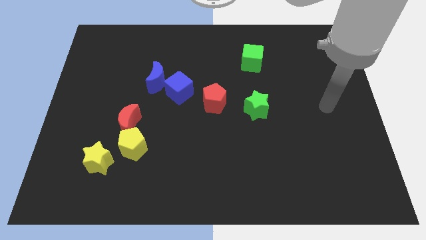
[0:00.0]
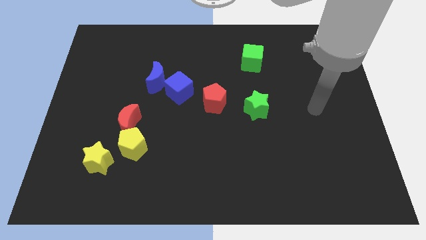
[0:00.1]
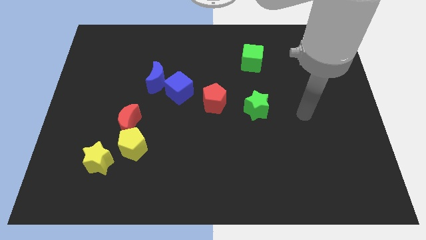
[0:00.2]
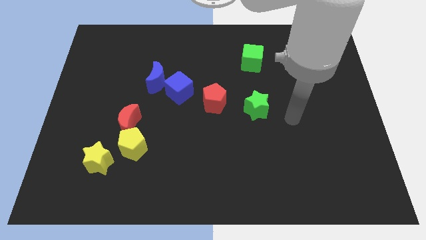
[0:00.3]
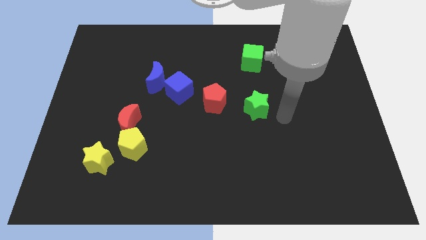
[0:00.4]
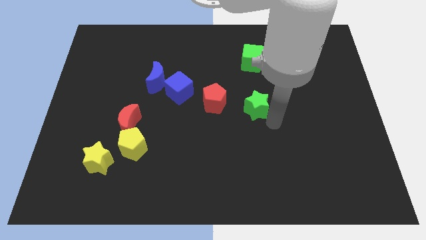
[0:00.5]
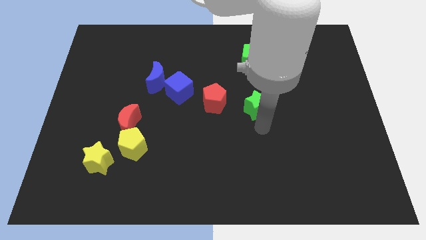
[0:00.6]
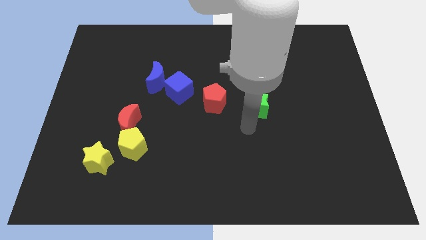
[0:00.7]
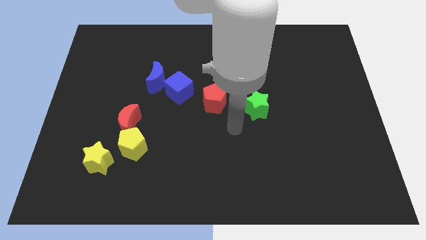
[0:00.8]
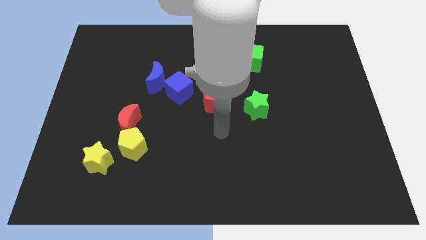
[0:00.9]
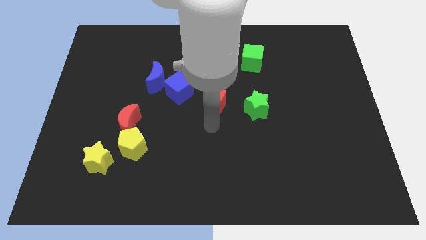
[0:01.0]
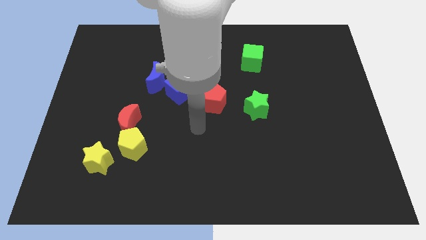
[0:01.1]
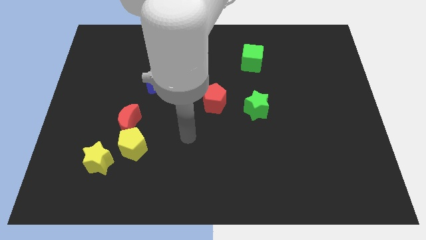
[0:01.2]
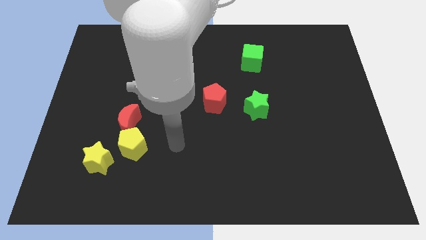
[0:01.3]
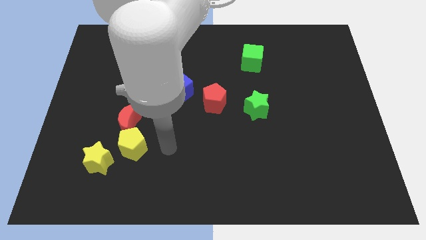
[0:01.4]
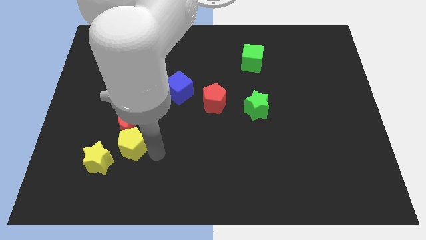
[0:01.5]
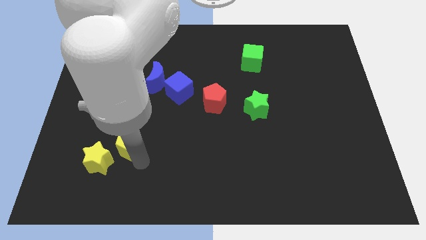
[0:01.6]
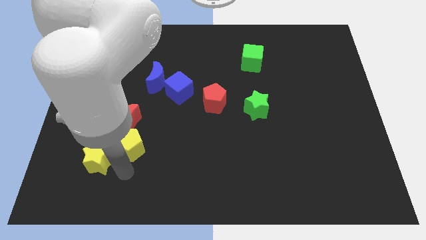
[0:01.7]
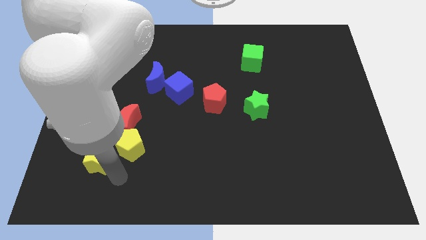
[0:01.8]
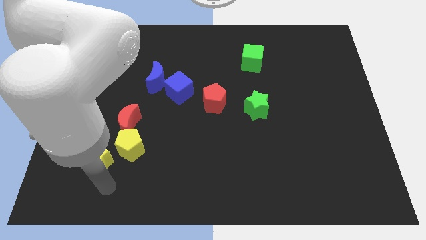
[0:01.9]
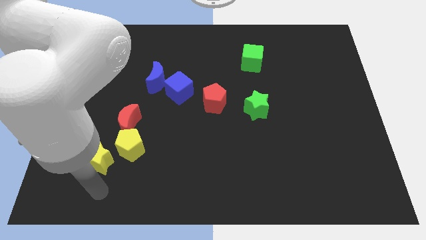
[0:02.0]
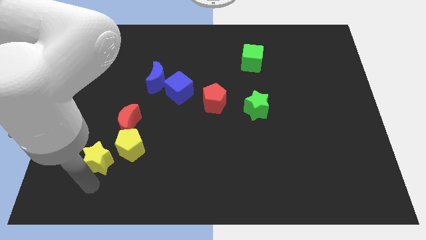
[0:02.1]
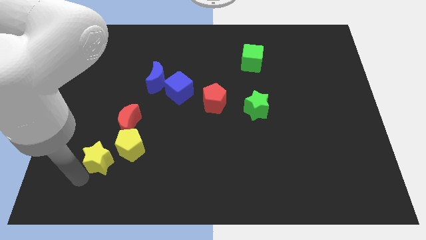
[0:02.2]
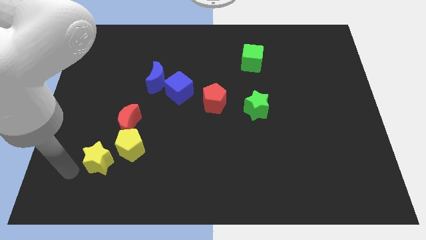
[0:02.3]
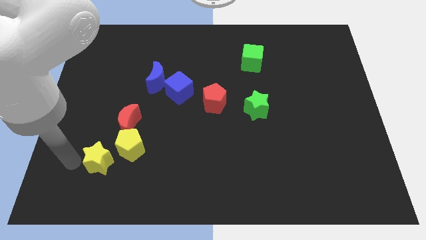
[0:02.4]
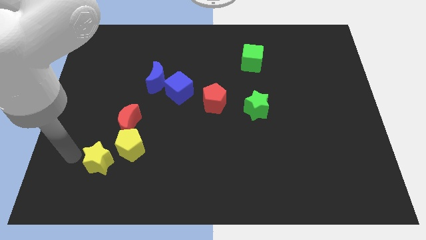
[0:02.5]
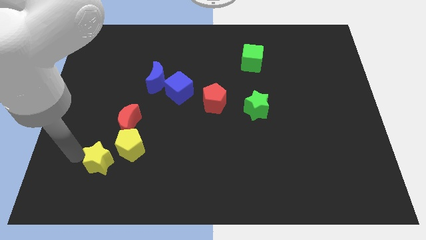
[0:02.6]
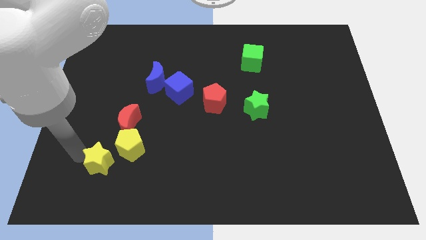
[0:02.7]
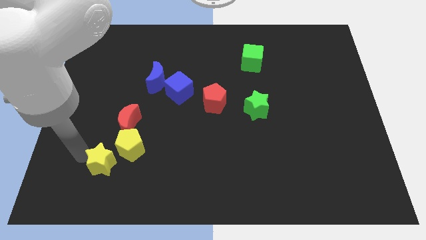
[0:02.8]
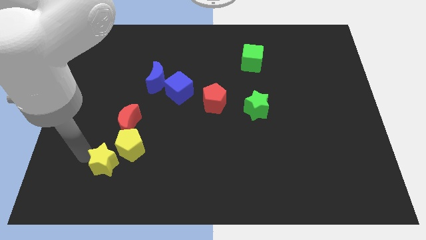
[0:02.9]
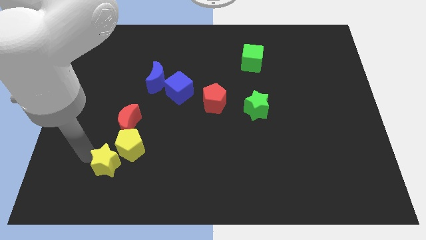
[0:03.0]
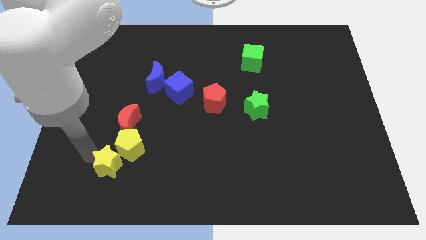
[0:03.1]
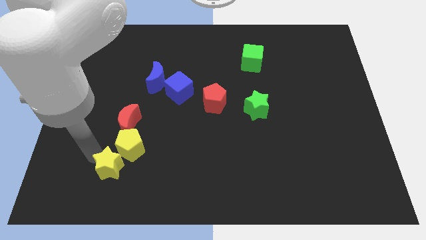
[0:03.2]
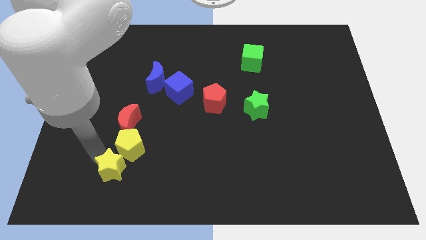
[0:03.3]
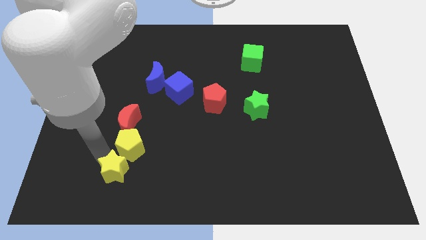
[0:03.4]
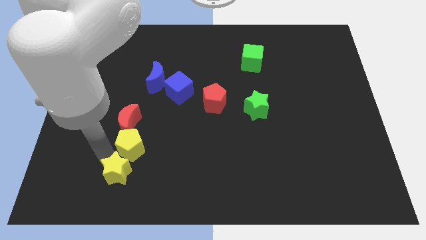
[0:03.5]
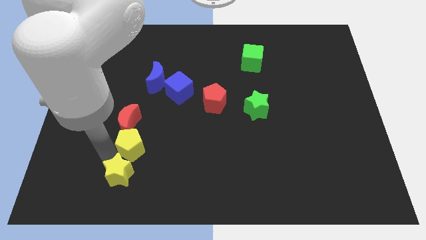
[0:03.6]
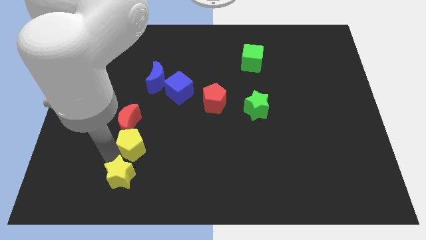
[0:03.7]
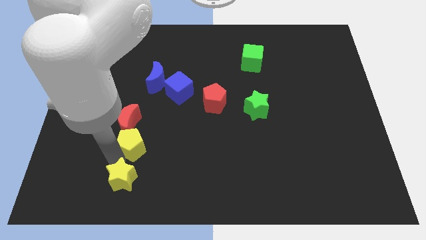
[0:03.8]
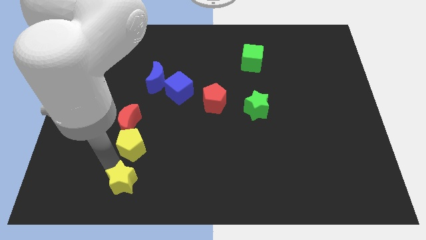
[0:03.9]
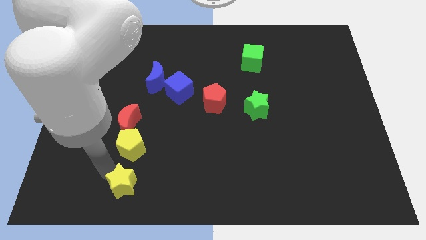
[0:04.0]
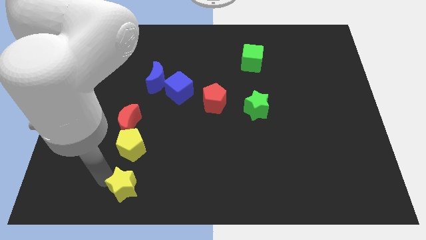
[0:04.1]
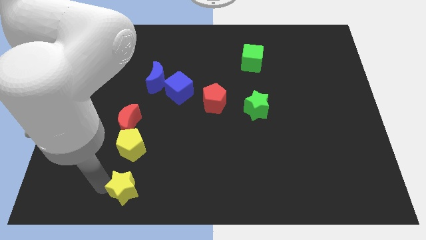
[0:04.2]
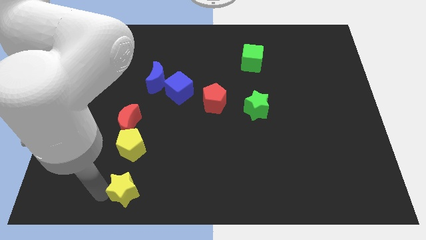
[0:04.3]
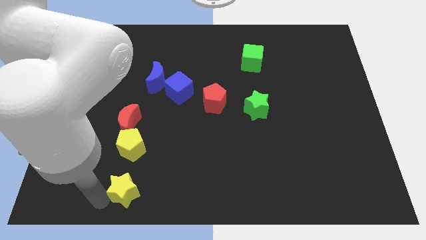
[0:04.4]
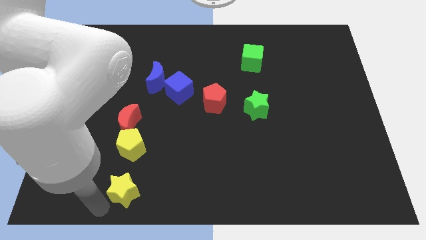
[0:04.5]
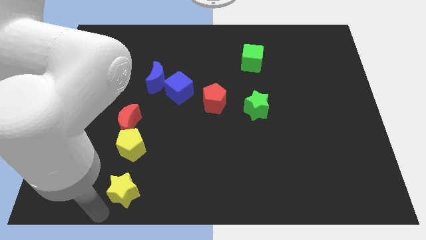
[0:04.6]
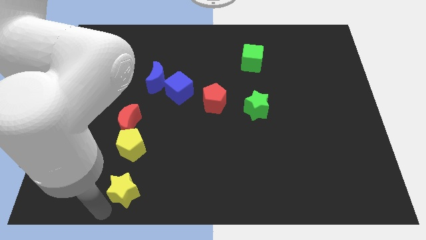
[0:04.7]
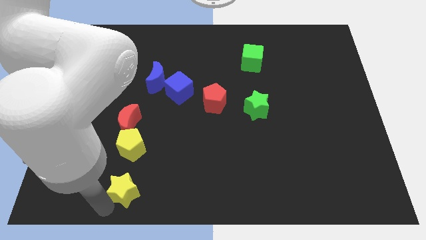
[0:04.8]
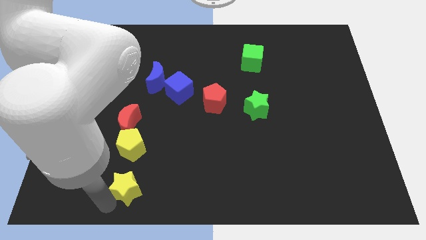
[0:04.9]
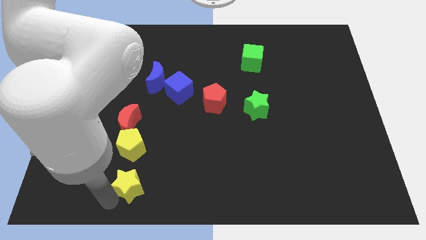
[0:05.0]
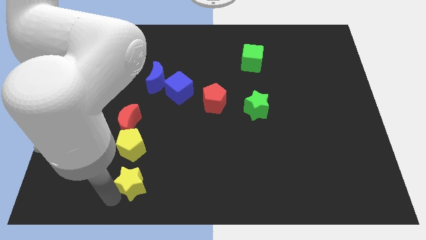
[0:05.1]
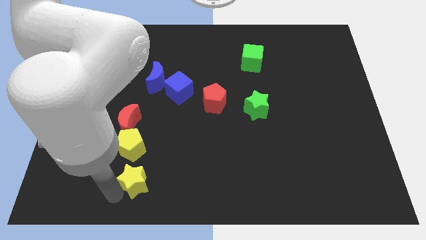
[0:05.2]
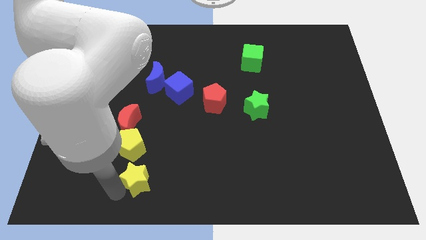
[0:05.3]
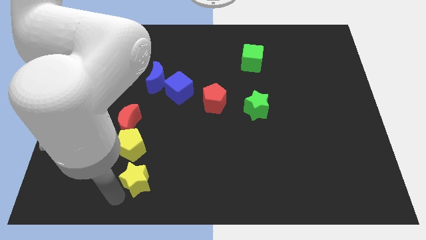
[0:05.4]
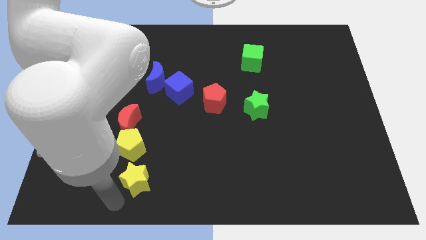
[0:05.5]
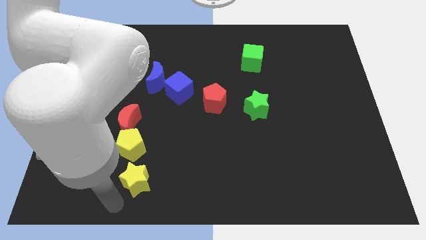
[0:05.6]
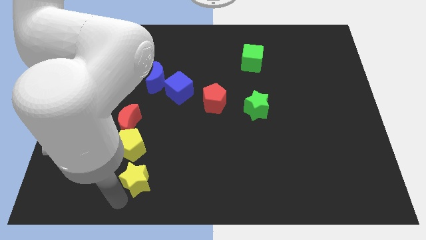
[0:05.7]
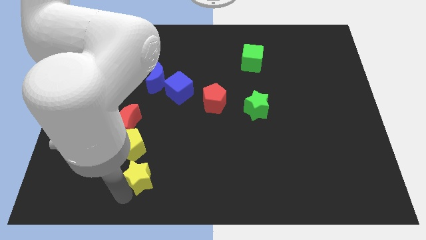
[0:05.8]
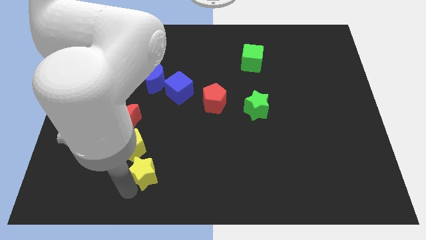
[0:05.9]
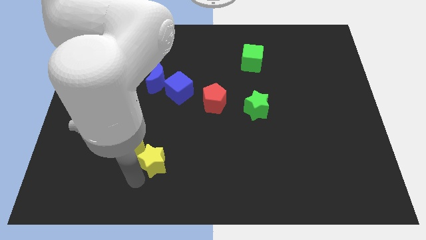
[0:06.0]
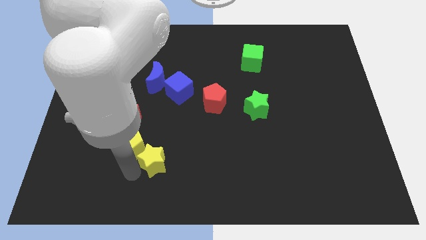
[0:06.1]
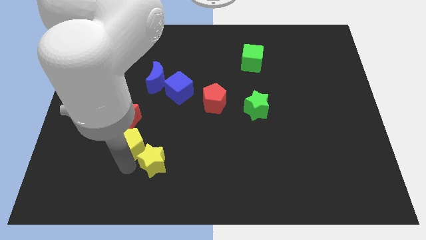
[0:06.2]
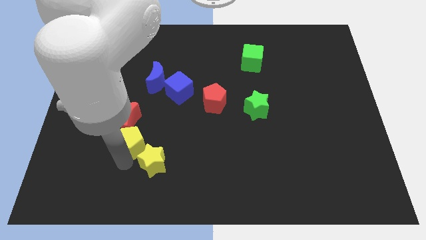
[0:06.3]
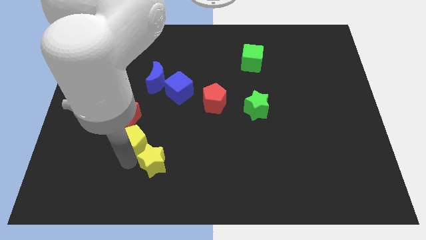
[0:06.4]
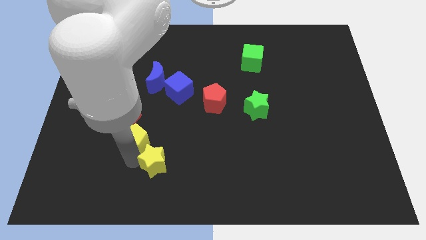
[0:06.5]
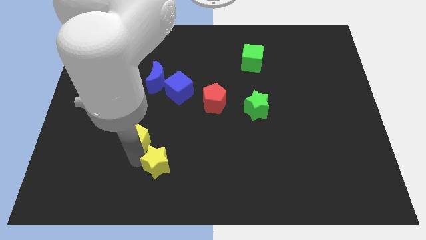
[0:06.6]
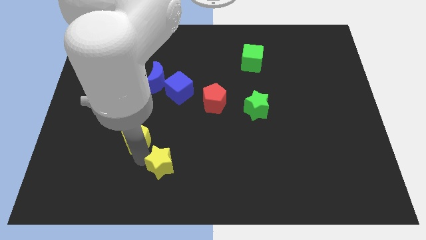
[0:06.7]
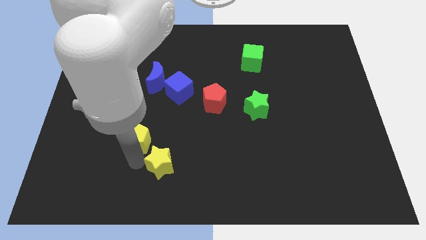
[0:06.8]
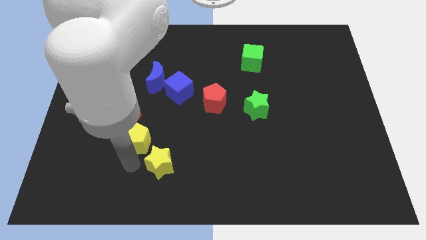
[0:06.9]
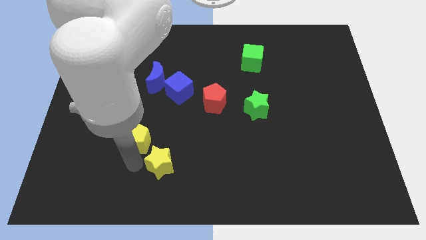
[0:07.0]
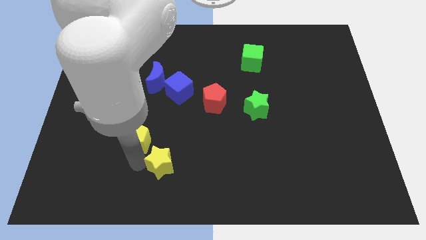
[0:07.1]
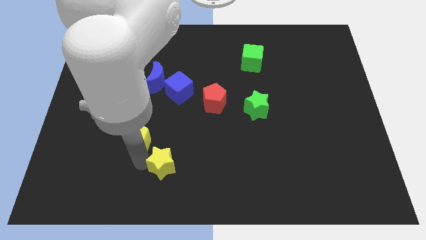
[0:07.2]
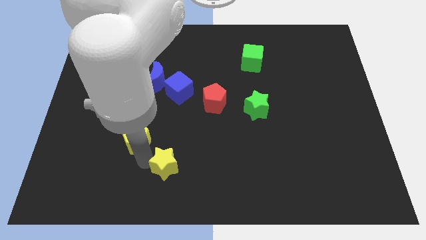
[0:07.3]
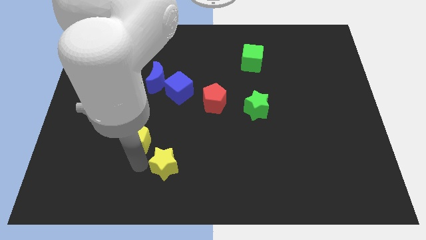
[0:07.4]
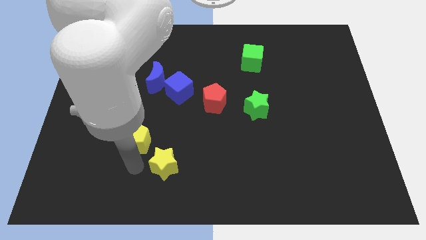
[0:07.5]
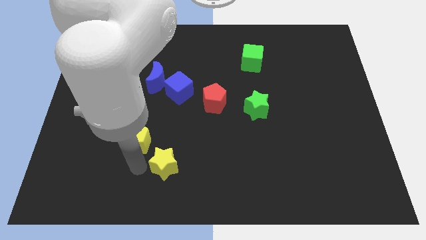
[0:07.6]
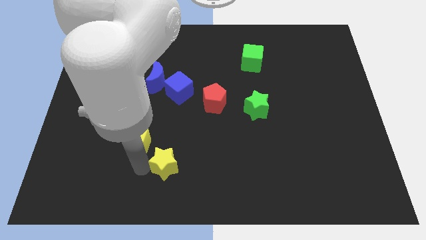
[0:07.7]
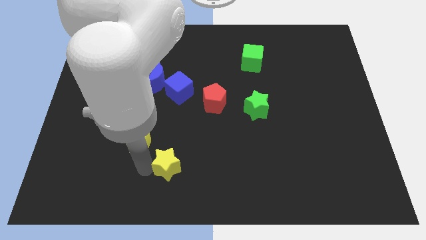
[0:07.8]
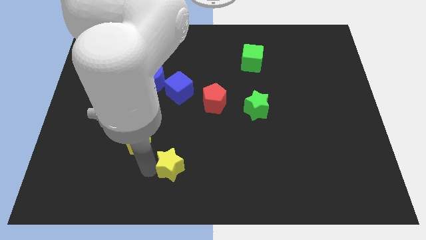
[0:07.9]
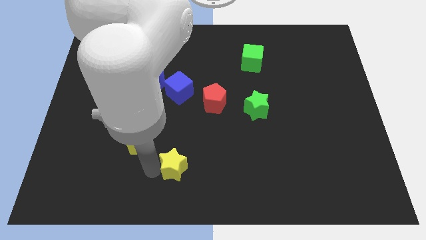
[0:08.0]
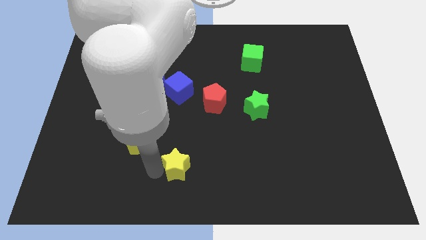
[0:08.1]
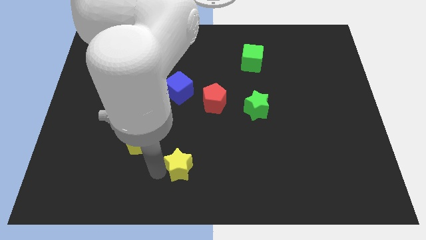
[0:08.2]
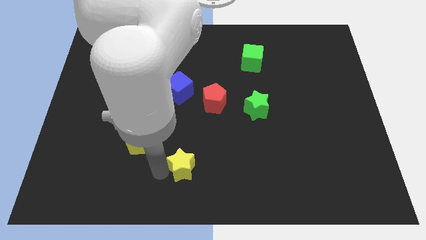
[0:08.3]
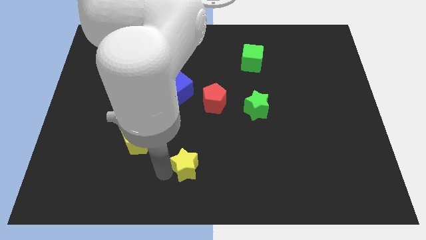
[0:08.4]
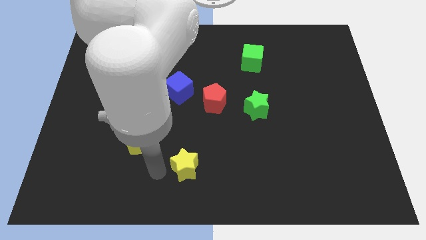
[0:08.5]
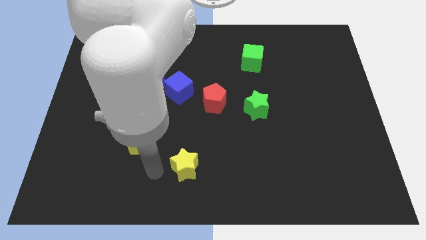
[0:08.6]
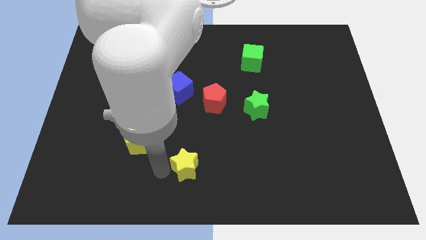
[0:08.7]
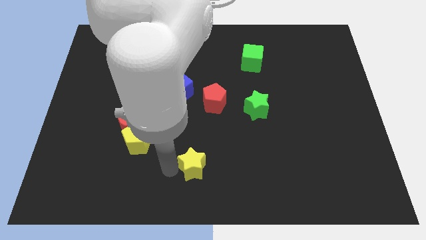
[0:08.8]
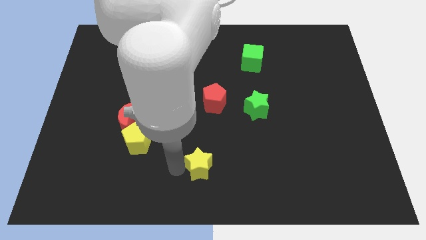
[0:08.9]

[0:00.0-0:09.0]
push the yellow star to the right
